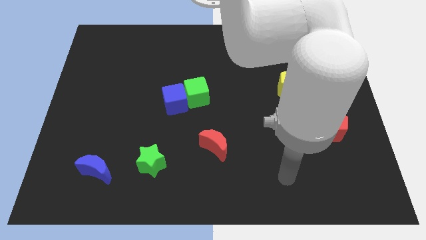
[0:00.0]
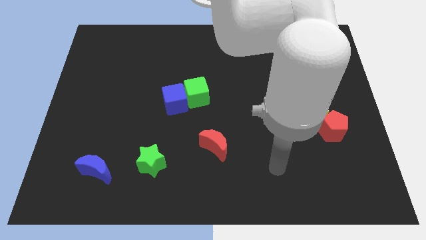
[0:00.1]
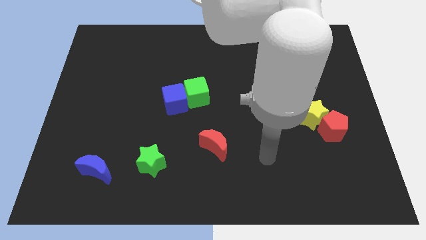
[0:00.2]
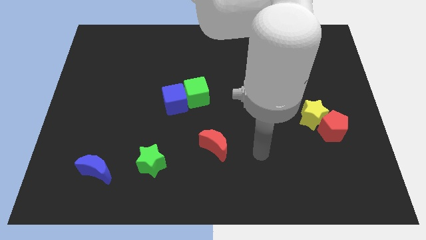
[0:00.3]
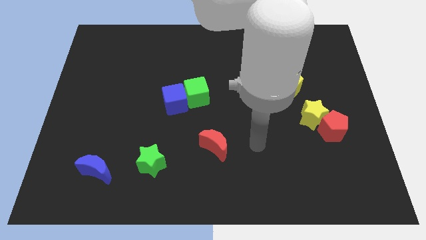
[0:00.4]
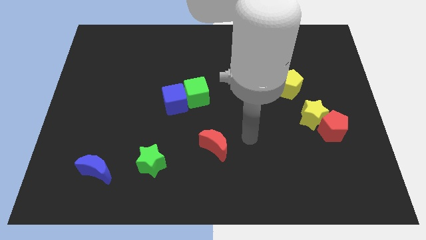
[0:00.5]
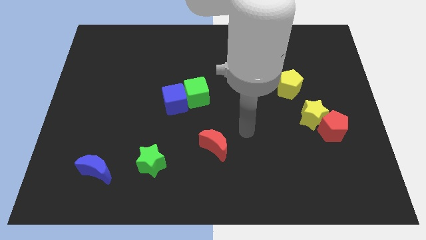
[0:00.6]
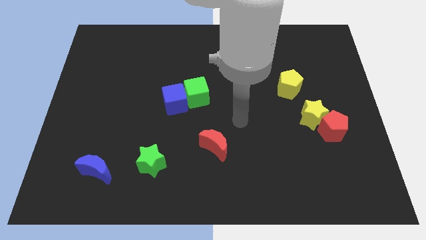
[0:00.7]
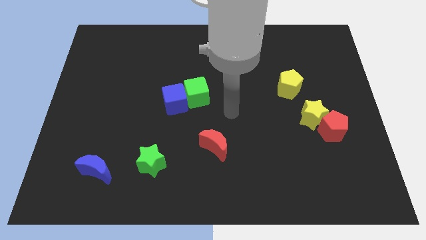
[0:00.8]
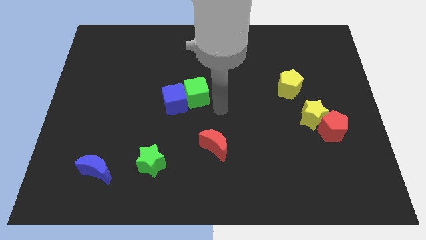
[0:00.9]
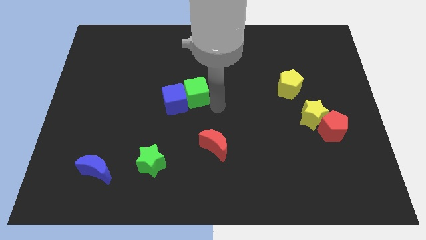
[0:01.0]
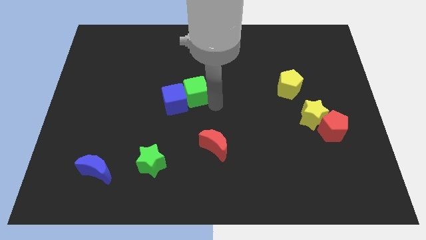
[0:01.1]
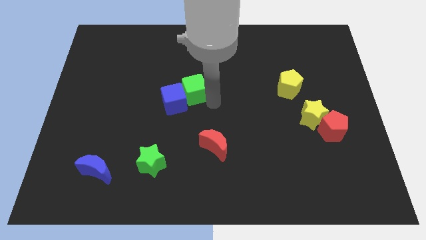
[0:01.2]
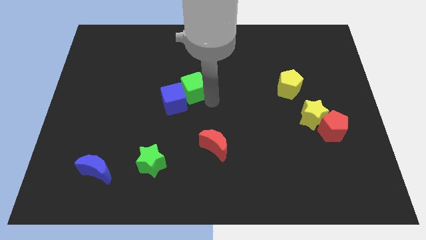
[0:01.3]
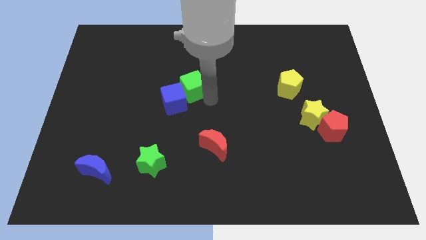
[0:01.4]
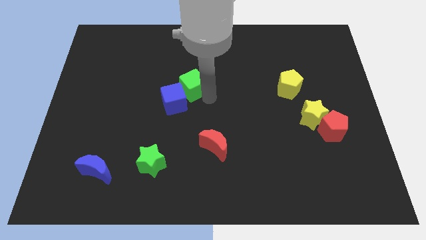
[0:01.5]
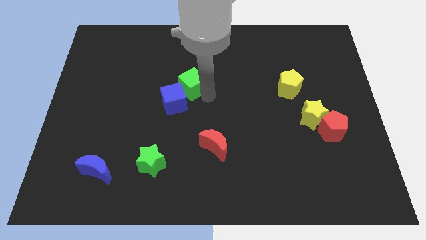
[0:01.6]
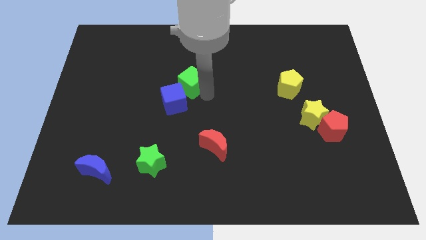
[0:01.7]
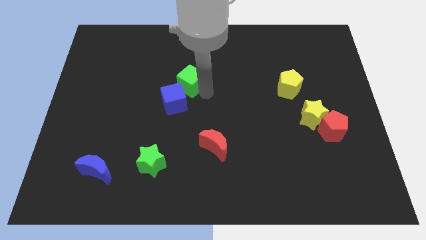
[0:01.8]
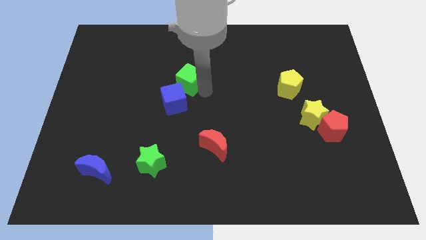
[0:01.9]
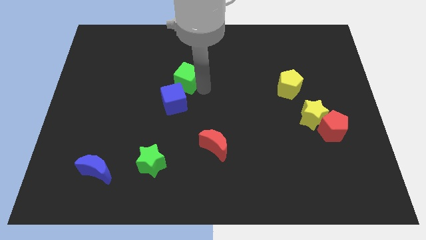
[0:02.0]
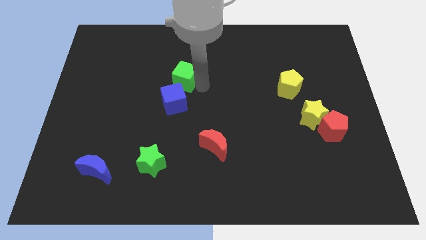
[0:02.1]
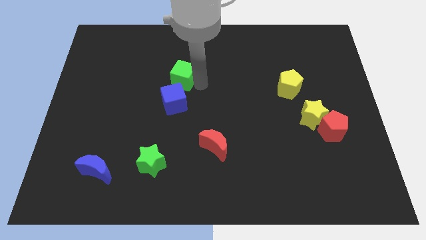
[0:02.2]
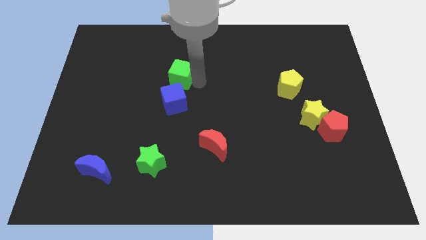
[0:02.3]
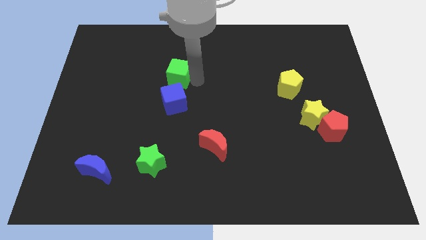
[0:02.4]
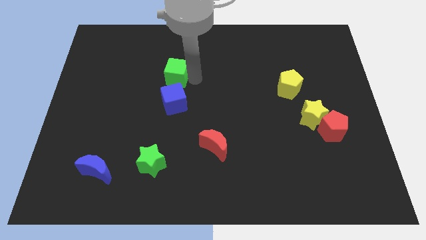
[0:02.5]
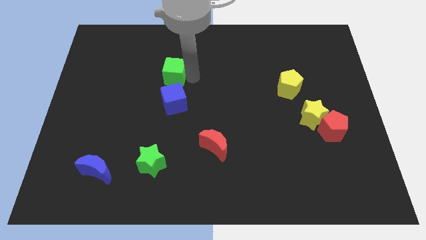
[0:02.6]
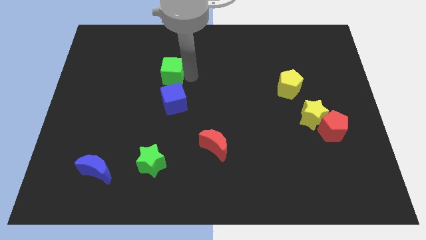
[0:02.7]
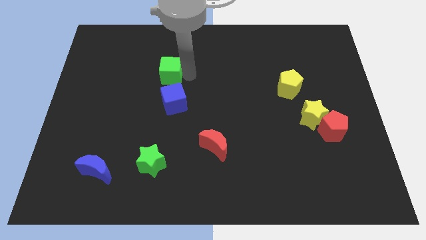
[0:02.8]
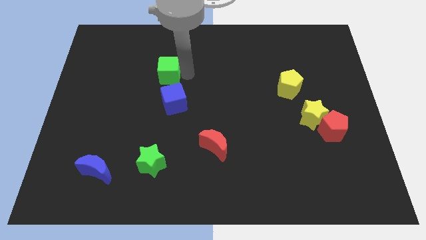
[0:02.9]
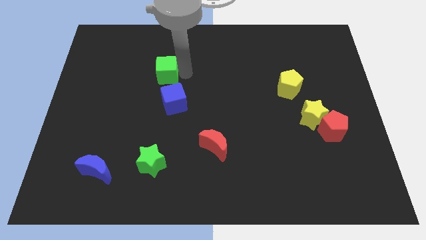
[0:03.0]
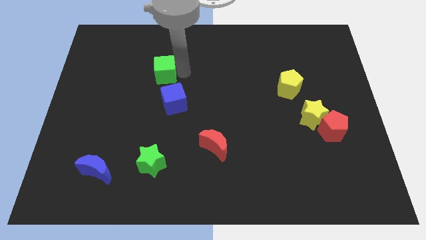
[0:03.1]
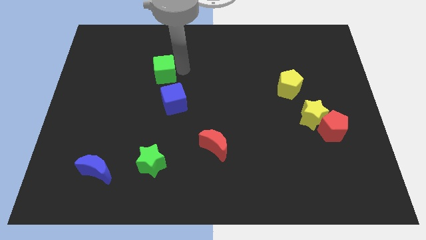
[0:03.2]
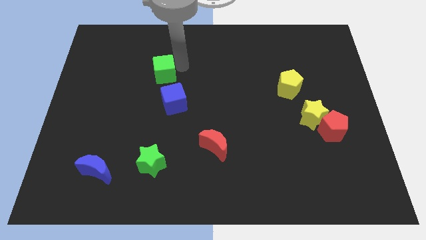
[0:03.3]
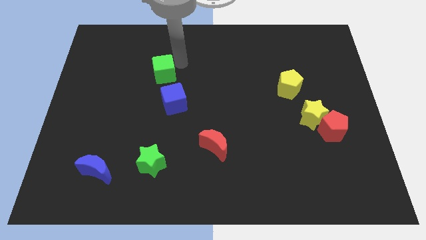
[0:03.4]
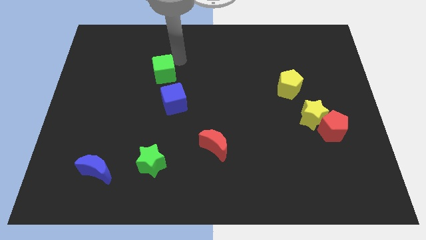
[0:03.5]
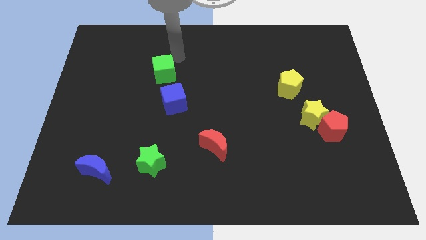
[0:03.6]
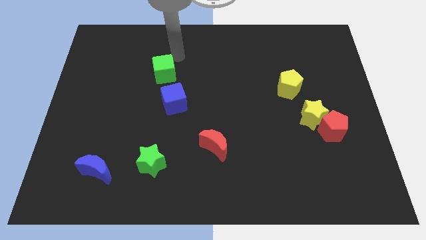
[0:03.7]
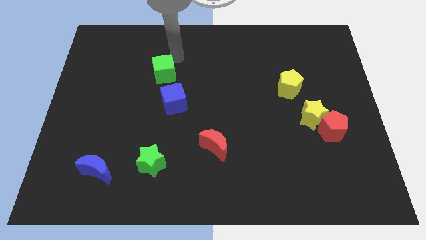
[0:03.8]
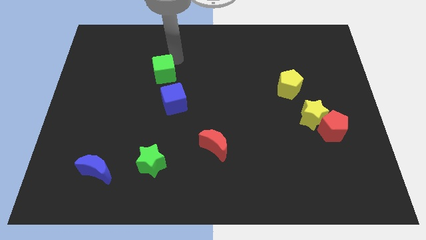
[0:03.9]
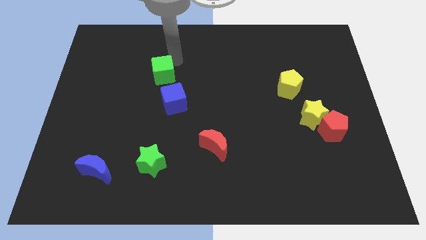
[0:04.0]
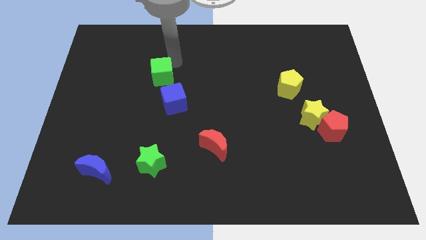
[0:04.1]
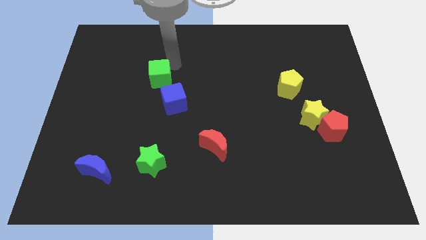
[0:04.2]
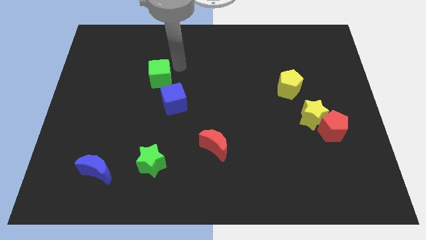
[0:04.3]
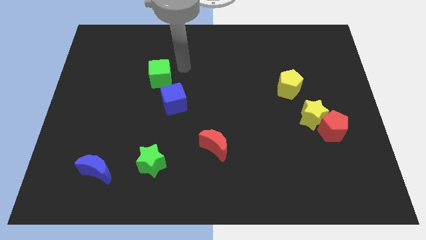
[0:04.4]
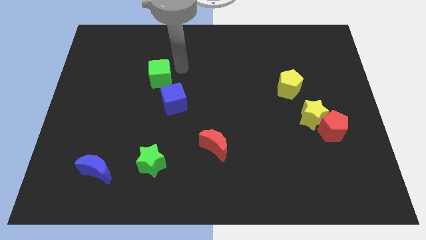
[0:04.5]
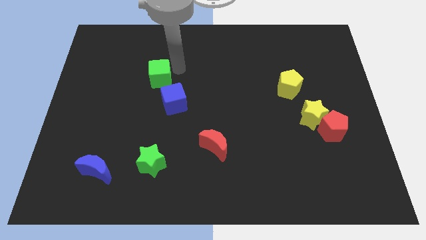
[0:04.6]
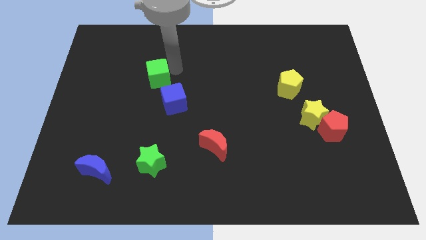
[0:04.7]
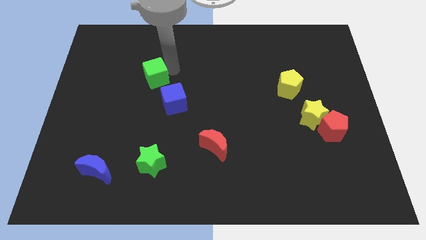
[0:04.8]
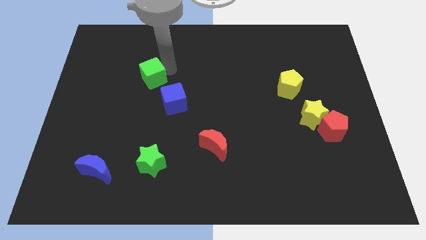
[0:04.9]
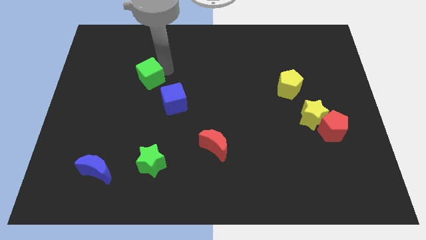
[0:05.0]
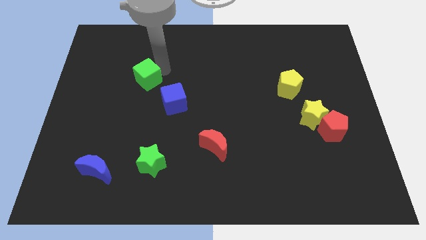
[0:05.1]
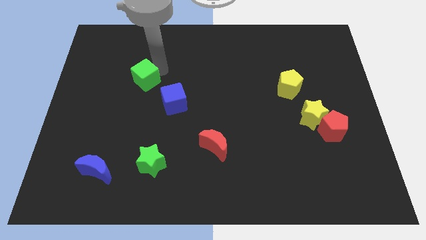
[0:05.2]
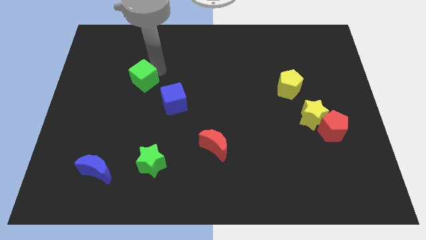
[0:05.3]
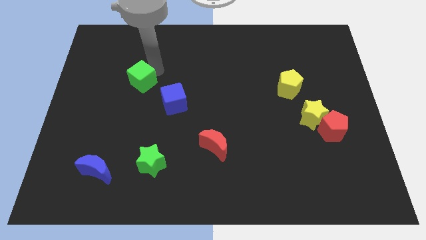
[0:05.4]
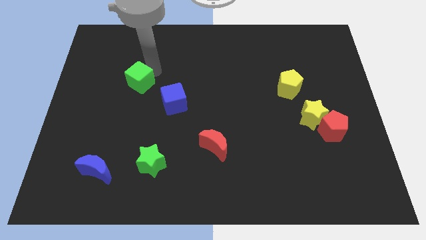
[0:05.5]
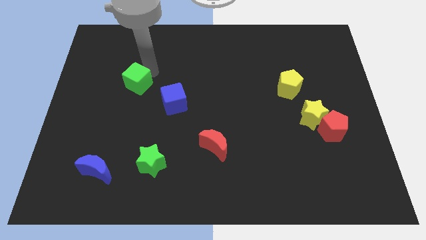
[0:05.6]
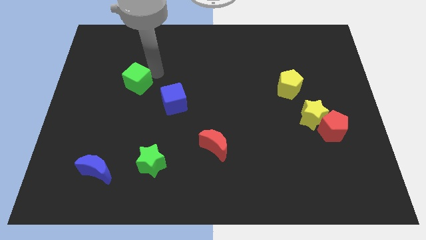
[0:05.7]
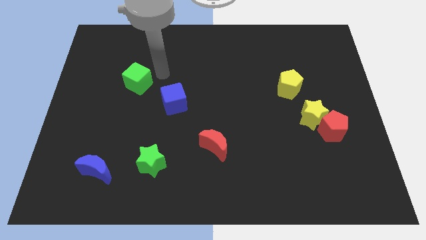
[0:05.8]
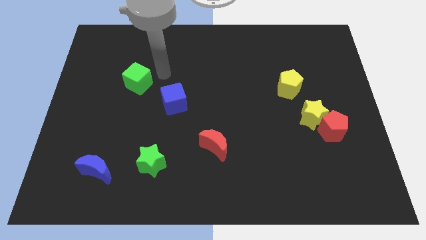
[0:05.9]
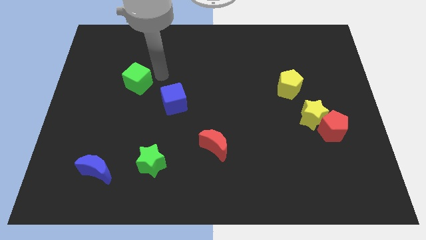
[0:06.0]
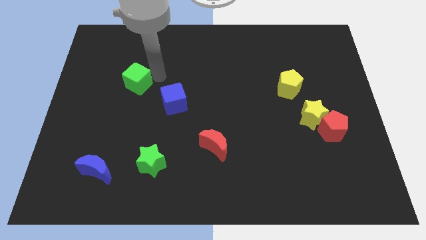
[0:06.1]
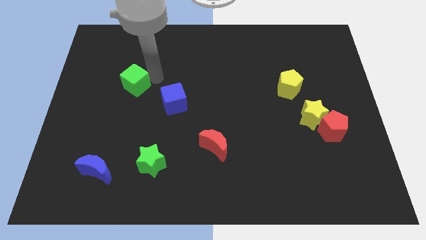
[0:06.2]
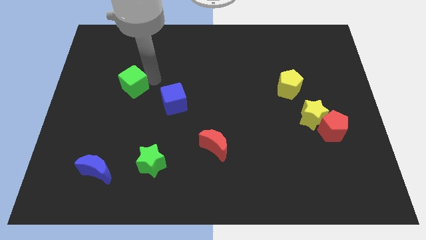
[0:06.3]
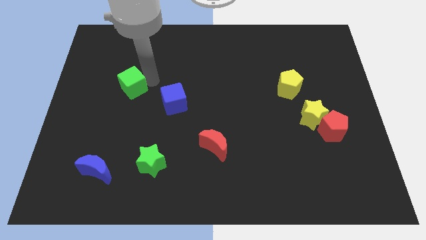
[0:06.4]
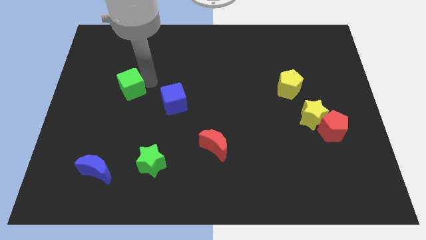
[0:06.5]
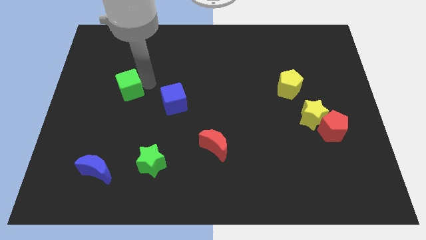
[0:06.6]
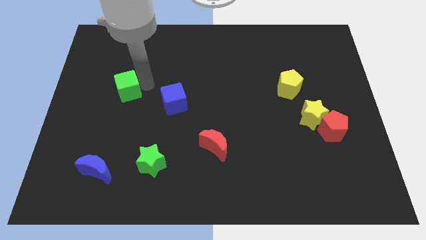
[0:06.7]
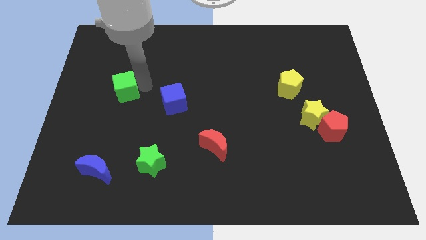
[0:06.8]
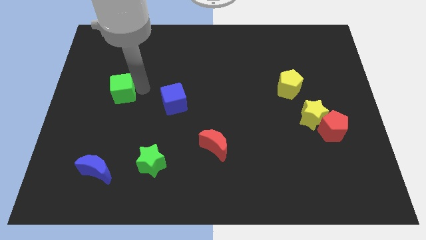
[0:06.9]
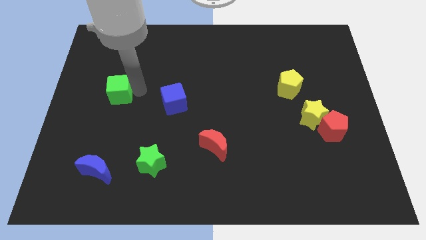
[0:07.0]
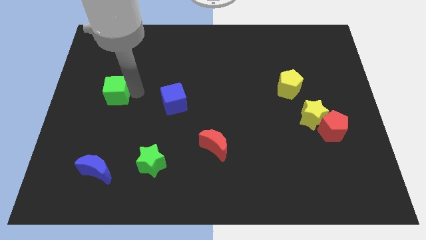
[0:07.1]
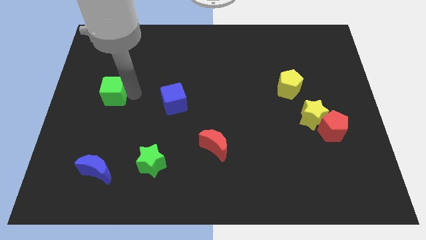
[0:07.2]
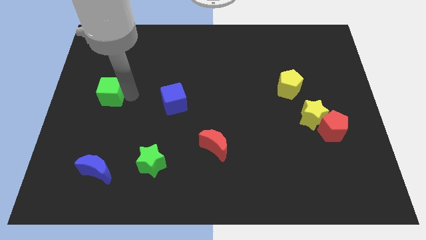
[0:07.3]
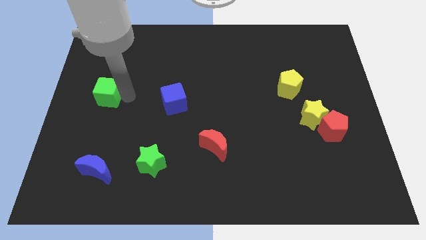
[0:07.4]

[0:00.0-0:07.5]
put the green cube to the left side of the board

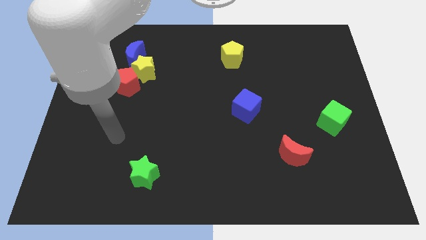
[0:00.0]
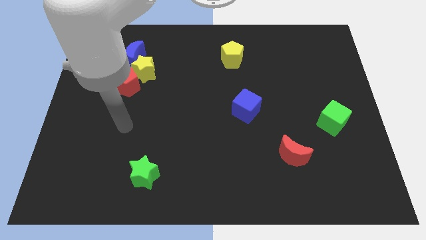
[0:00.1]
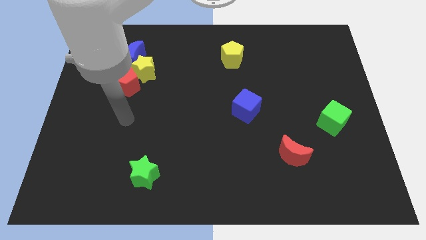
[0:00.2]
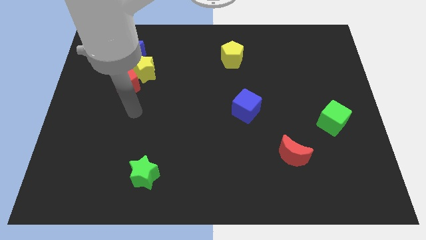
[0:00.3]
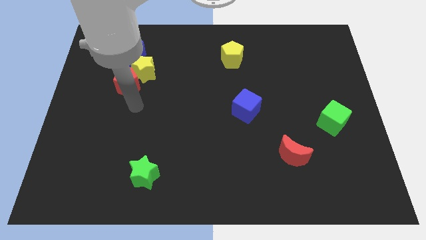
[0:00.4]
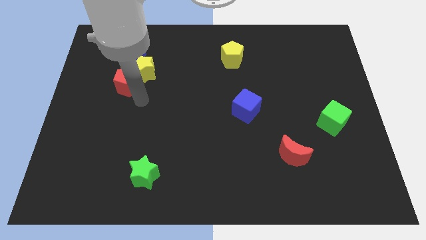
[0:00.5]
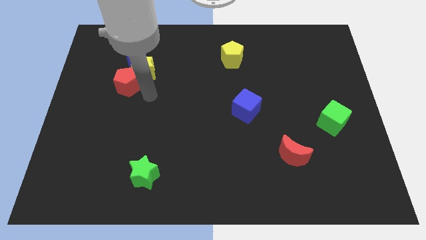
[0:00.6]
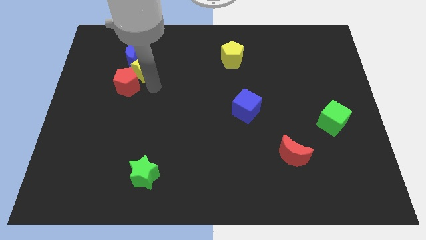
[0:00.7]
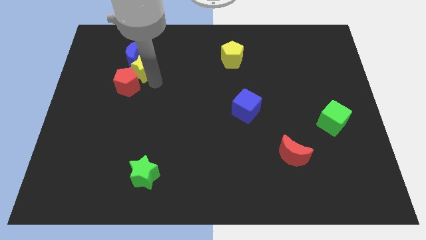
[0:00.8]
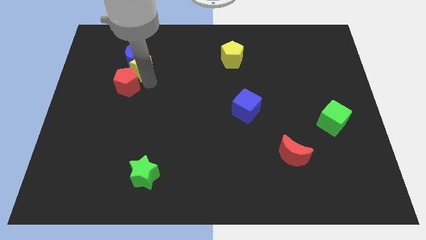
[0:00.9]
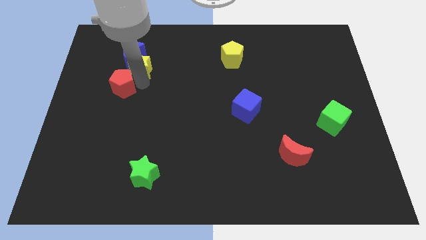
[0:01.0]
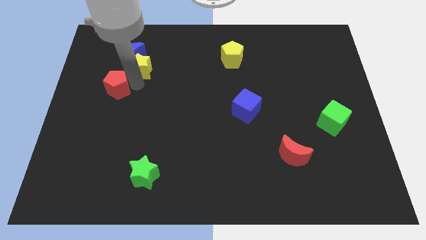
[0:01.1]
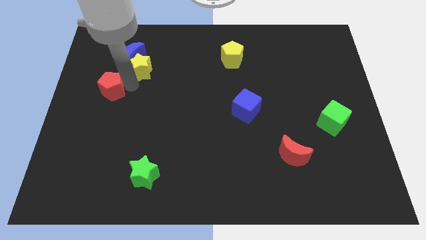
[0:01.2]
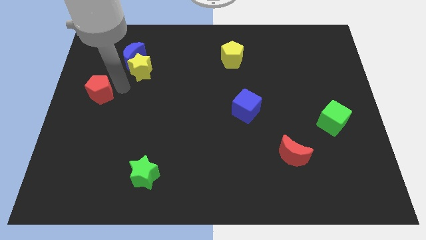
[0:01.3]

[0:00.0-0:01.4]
move the red pentagon to the left side
